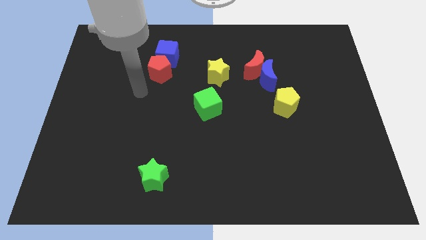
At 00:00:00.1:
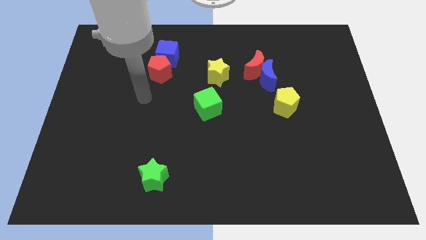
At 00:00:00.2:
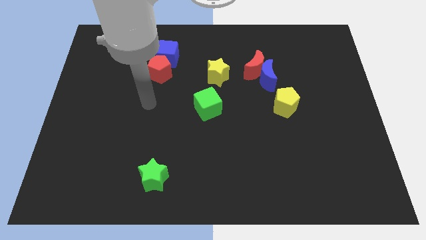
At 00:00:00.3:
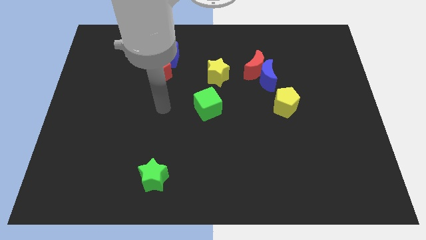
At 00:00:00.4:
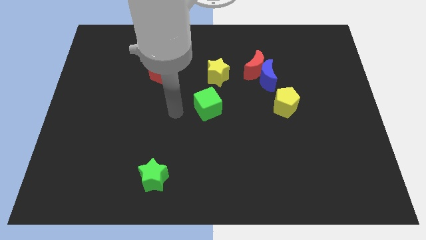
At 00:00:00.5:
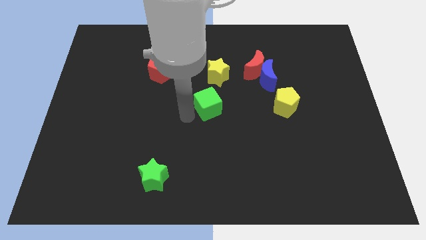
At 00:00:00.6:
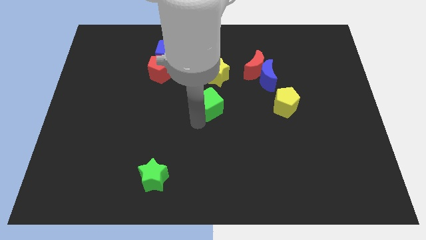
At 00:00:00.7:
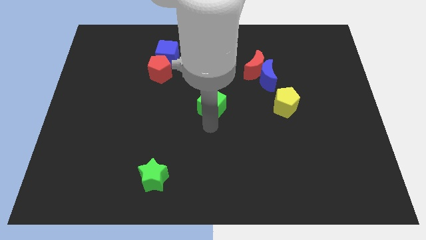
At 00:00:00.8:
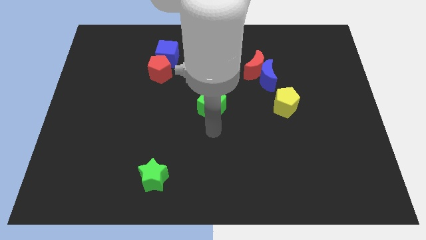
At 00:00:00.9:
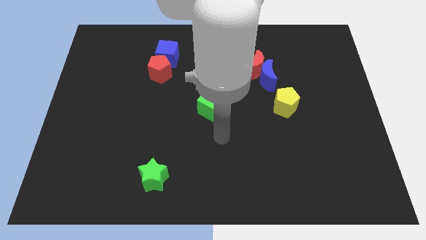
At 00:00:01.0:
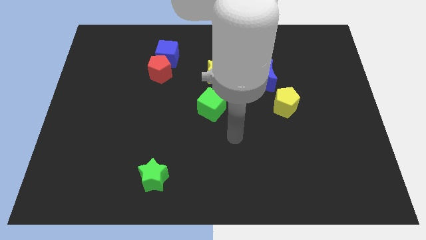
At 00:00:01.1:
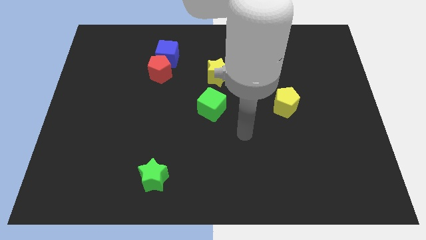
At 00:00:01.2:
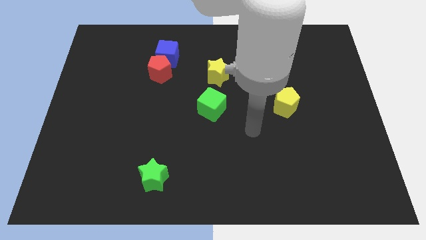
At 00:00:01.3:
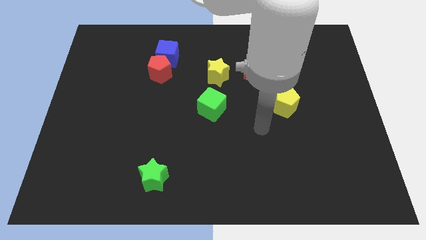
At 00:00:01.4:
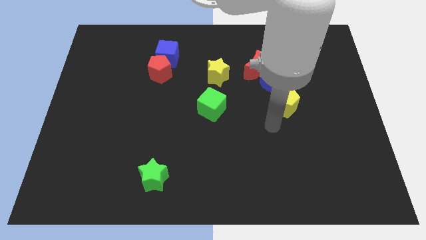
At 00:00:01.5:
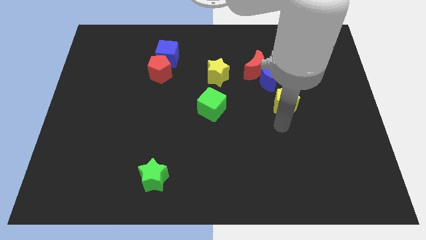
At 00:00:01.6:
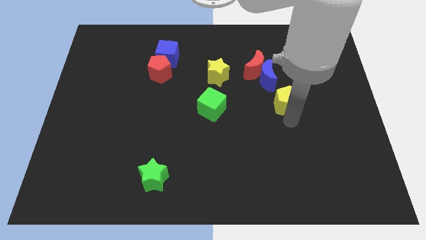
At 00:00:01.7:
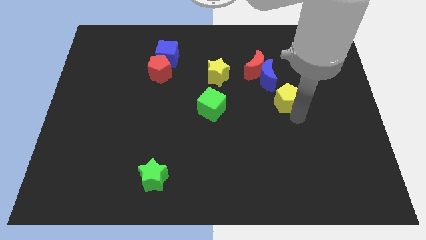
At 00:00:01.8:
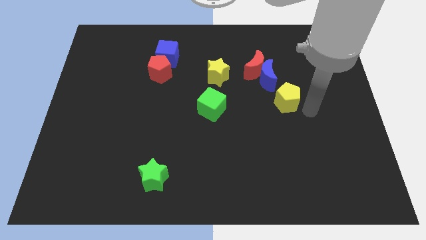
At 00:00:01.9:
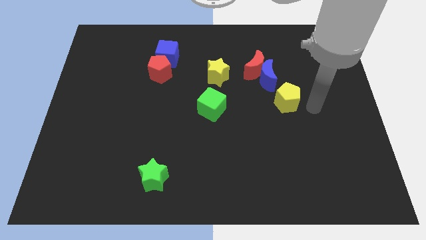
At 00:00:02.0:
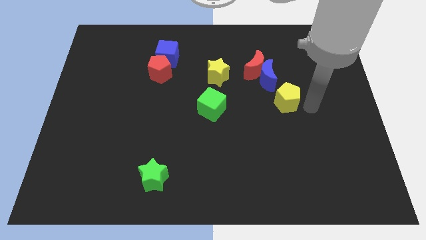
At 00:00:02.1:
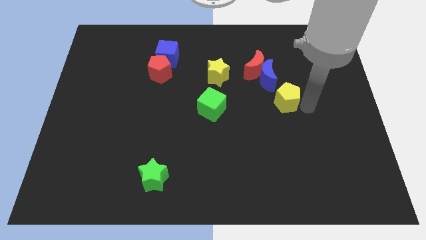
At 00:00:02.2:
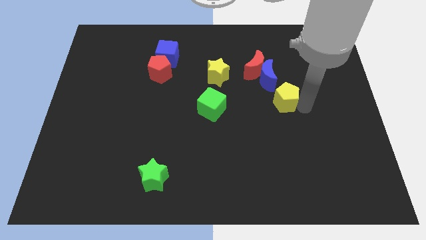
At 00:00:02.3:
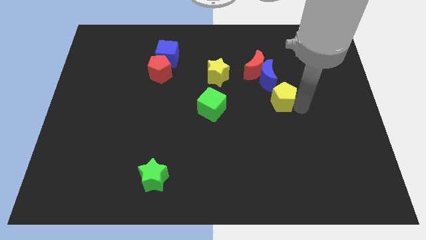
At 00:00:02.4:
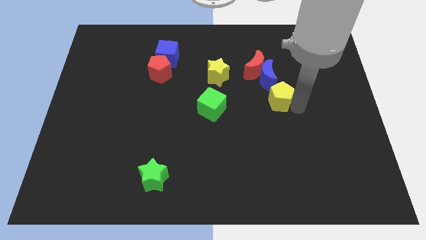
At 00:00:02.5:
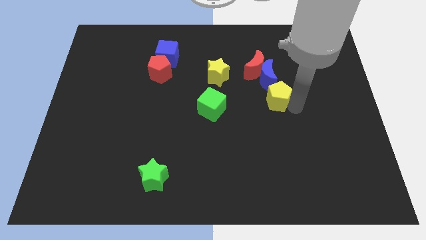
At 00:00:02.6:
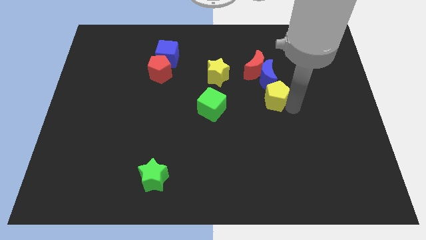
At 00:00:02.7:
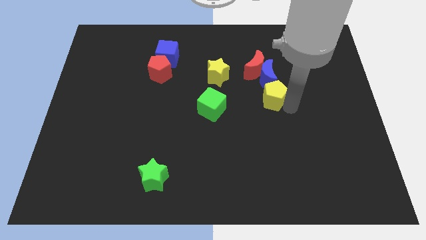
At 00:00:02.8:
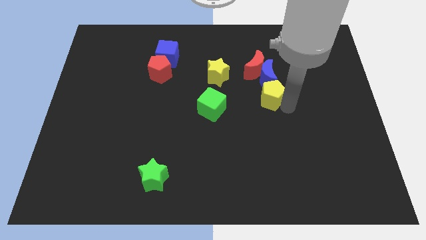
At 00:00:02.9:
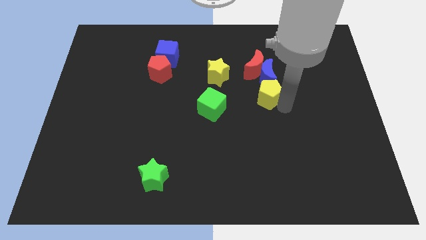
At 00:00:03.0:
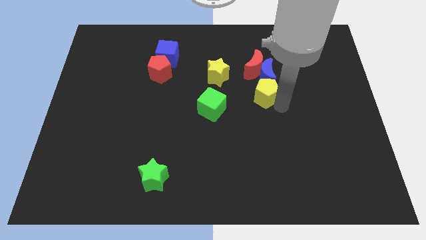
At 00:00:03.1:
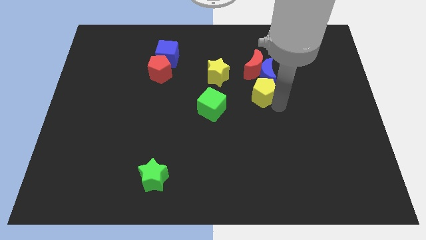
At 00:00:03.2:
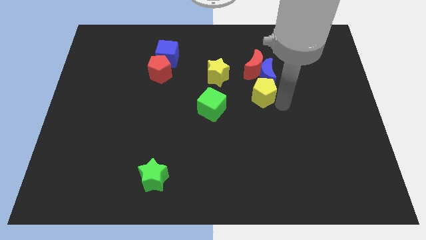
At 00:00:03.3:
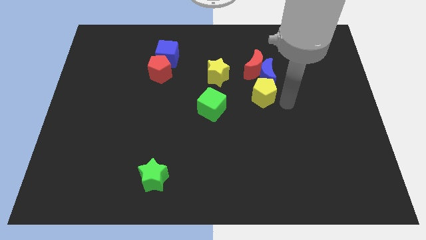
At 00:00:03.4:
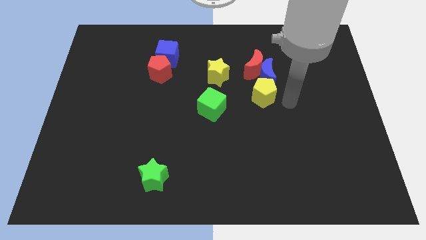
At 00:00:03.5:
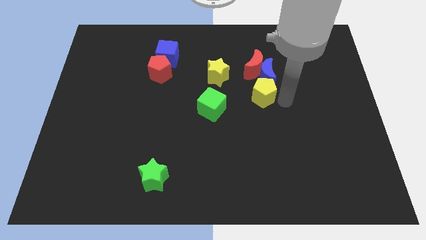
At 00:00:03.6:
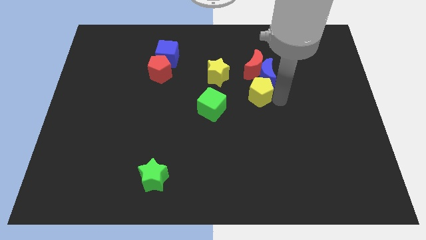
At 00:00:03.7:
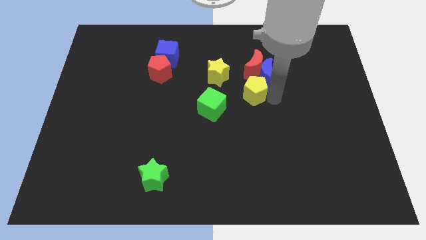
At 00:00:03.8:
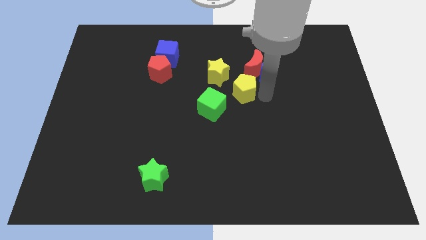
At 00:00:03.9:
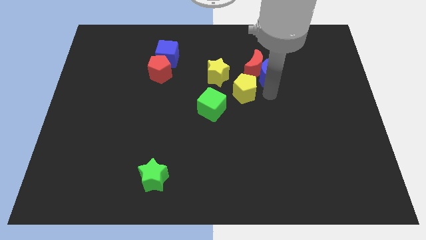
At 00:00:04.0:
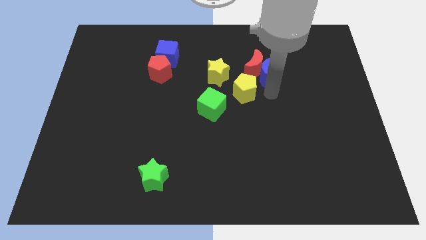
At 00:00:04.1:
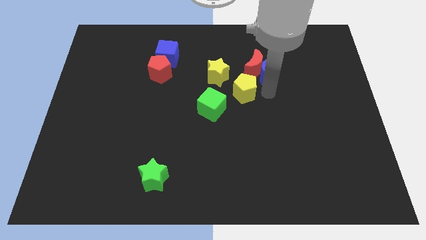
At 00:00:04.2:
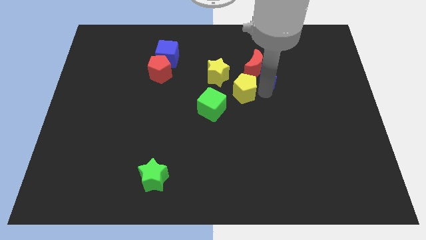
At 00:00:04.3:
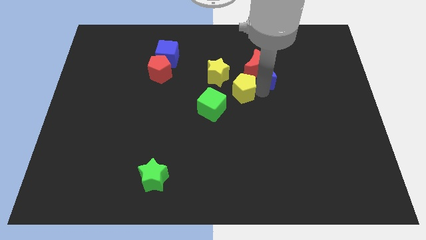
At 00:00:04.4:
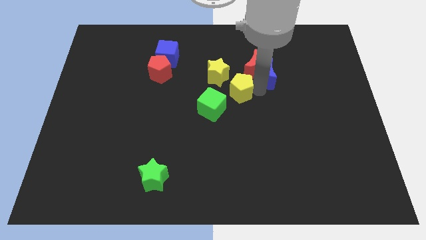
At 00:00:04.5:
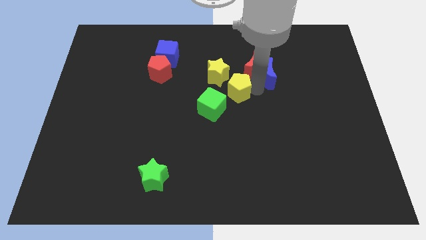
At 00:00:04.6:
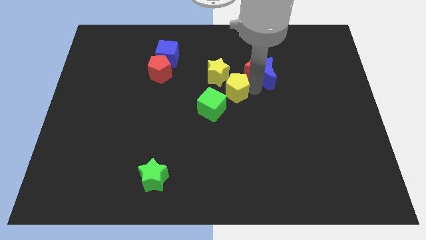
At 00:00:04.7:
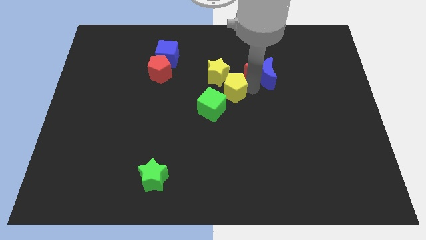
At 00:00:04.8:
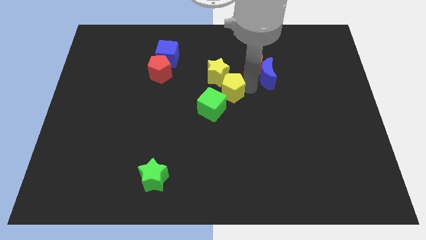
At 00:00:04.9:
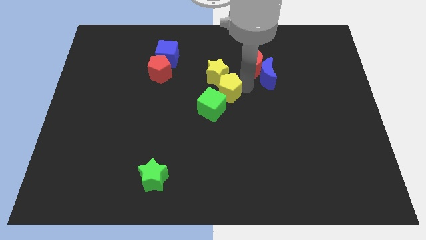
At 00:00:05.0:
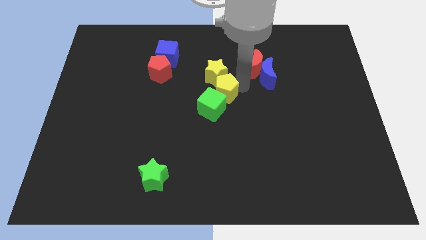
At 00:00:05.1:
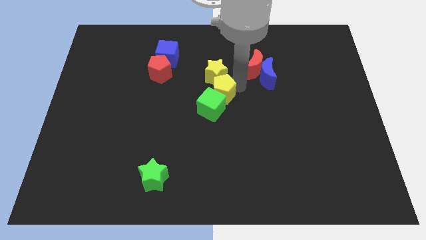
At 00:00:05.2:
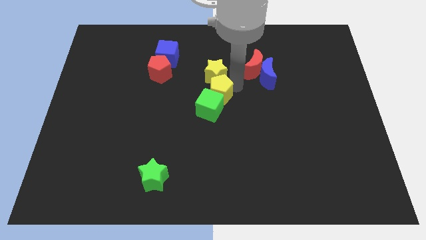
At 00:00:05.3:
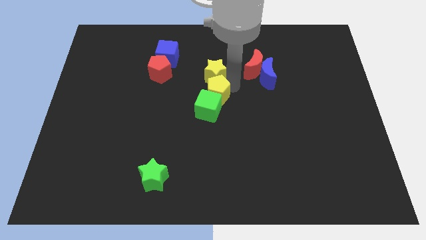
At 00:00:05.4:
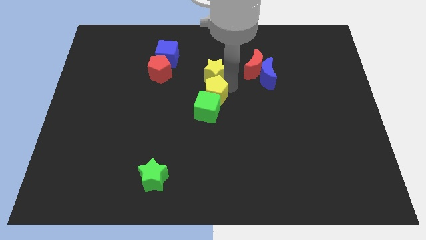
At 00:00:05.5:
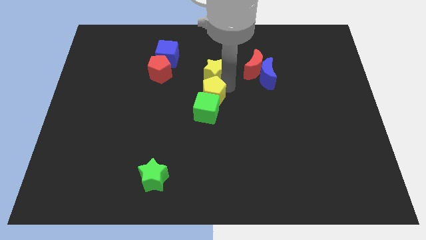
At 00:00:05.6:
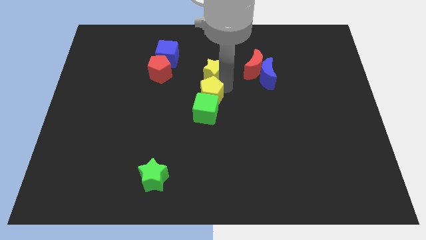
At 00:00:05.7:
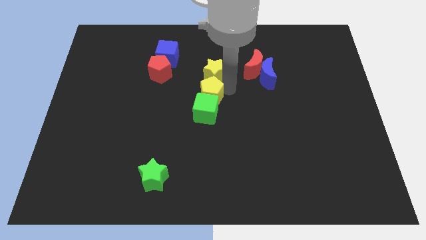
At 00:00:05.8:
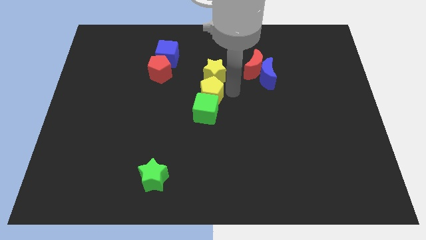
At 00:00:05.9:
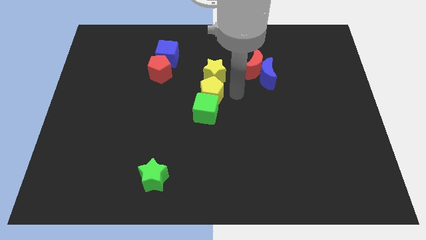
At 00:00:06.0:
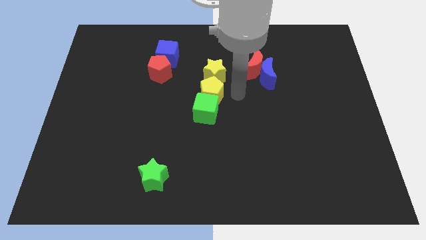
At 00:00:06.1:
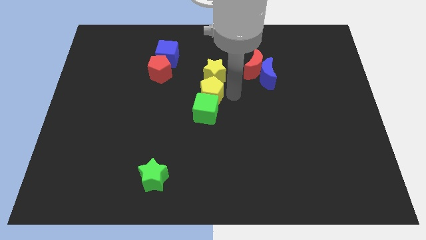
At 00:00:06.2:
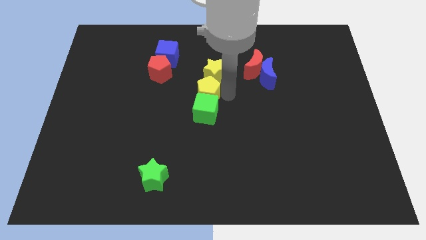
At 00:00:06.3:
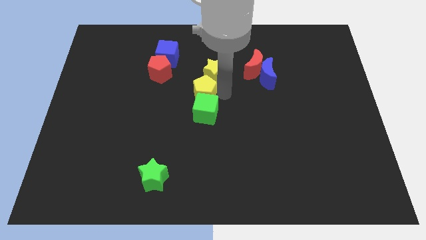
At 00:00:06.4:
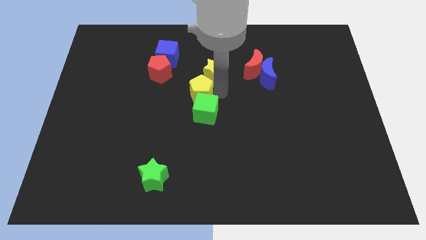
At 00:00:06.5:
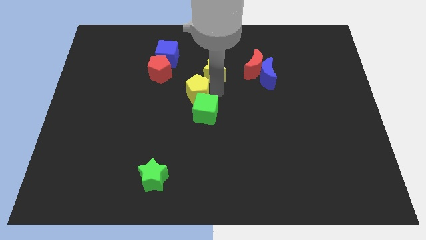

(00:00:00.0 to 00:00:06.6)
slide the yellow pentagon left

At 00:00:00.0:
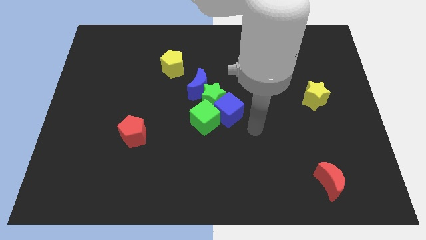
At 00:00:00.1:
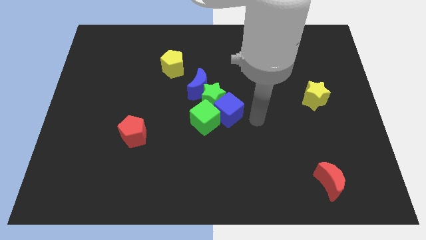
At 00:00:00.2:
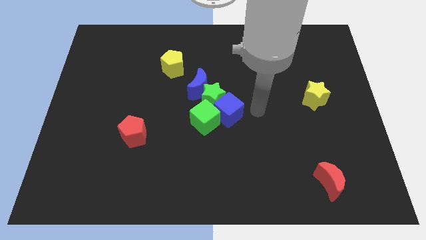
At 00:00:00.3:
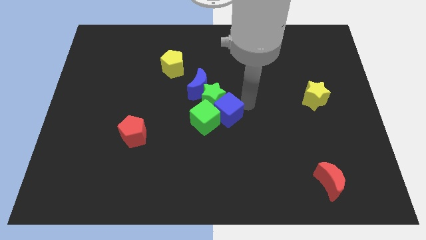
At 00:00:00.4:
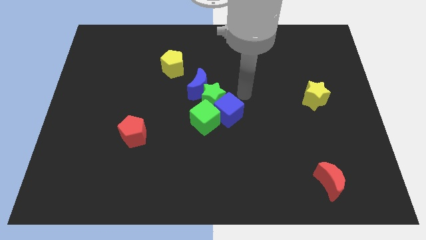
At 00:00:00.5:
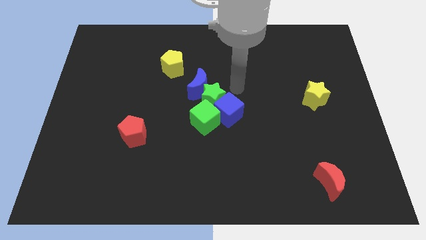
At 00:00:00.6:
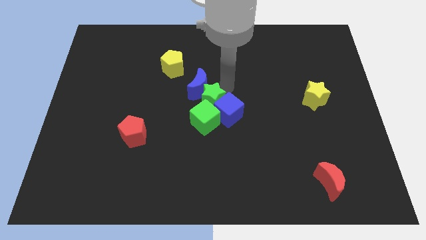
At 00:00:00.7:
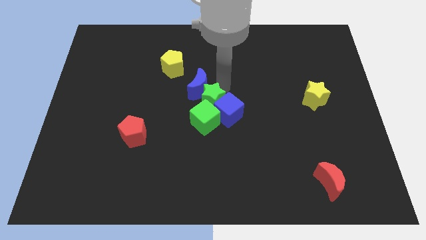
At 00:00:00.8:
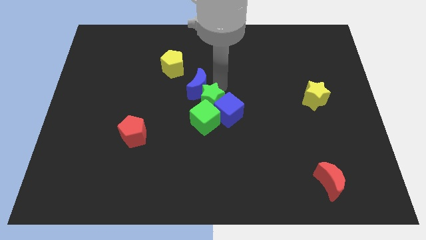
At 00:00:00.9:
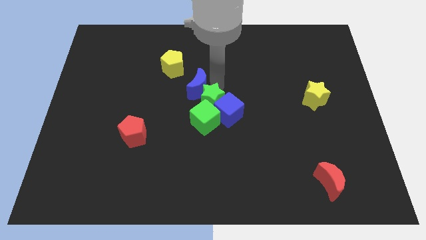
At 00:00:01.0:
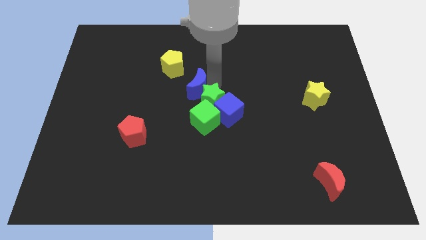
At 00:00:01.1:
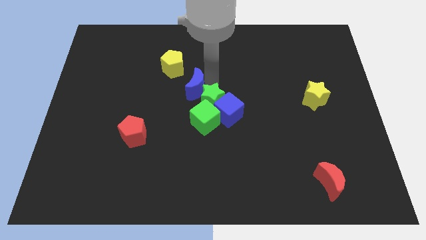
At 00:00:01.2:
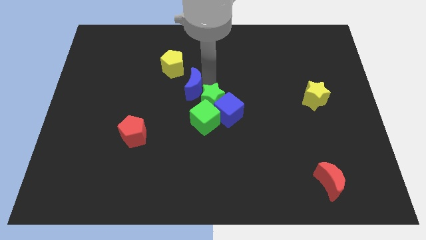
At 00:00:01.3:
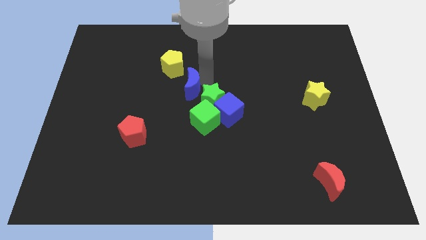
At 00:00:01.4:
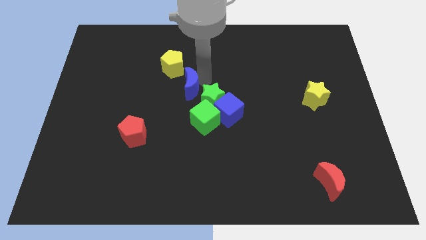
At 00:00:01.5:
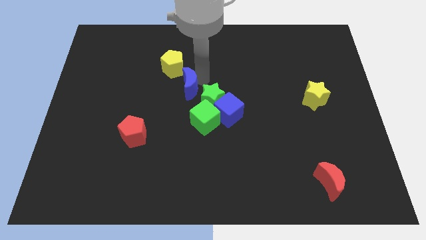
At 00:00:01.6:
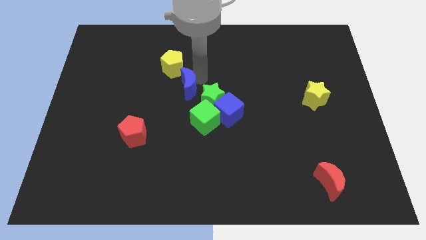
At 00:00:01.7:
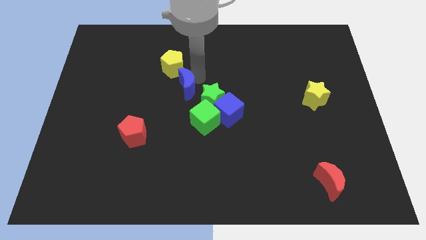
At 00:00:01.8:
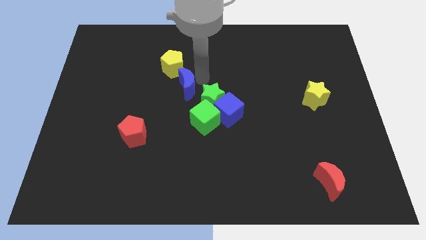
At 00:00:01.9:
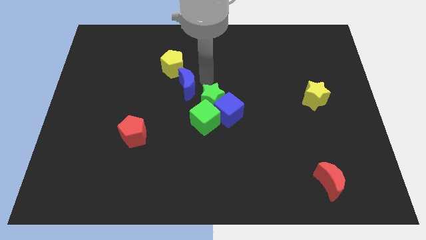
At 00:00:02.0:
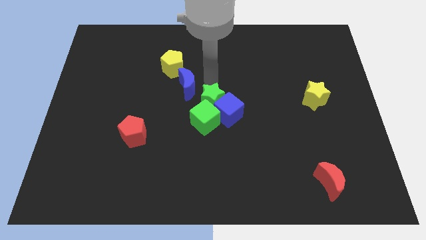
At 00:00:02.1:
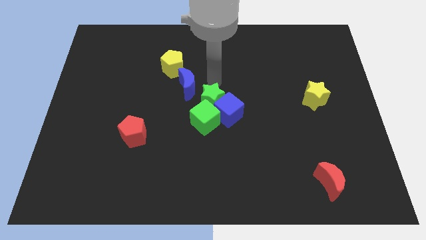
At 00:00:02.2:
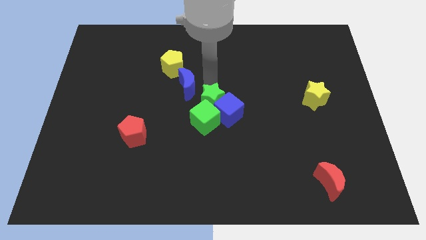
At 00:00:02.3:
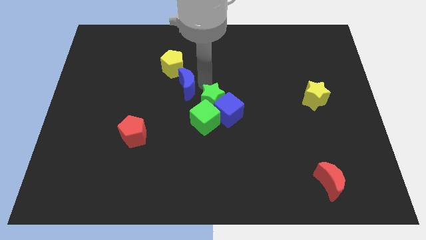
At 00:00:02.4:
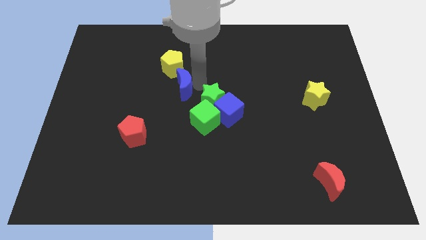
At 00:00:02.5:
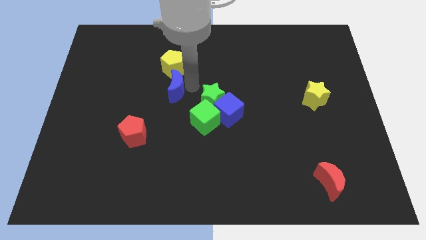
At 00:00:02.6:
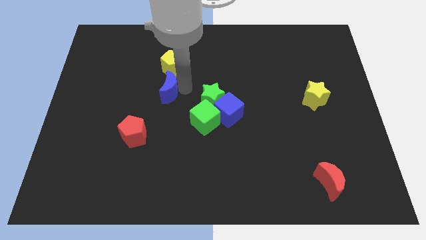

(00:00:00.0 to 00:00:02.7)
slightly push the blue moon to the left
